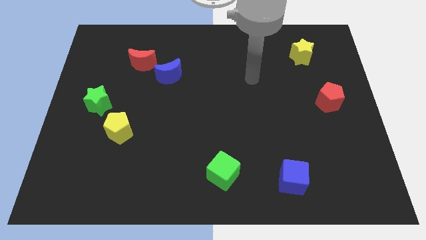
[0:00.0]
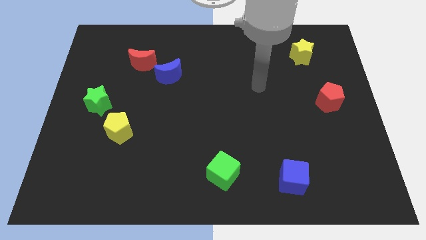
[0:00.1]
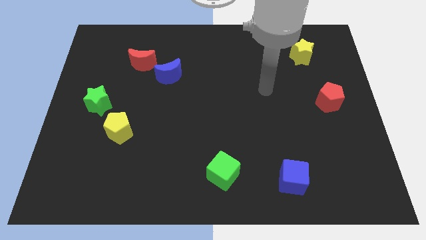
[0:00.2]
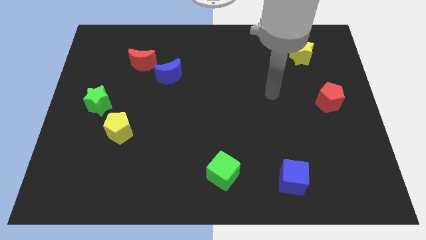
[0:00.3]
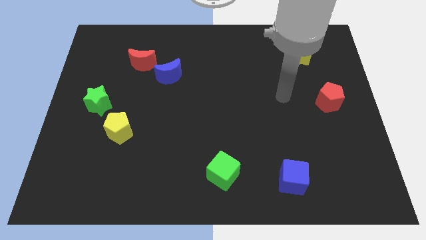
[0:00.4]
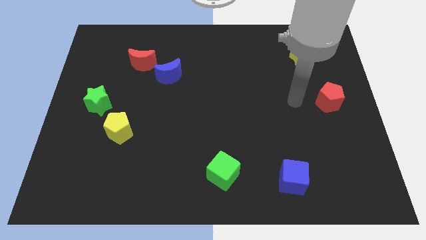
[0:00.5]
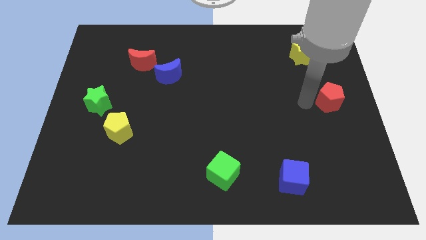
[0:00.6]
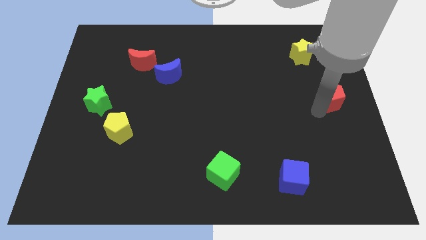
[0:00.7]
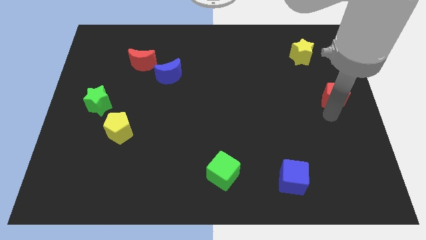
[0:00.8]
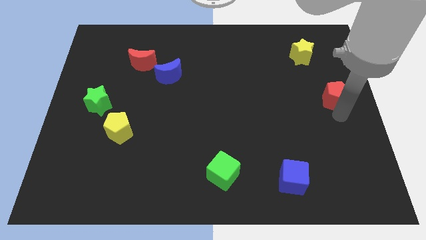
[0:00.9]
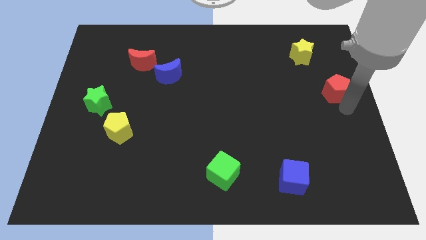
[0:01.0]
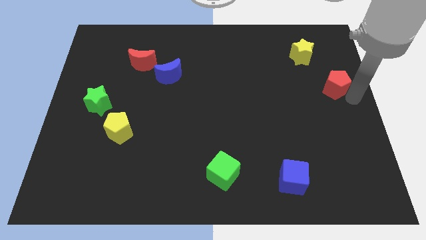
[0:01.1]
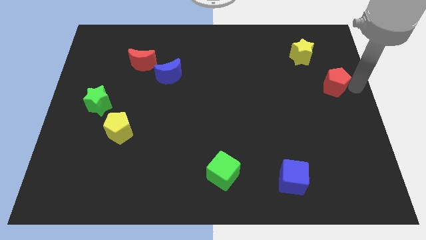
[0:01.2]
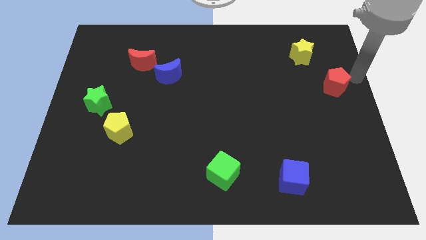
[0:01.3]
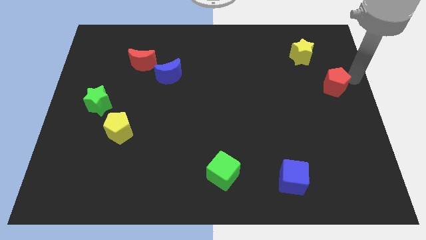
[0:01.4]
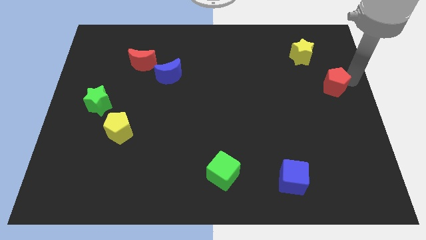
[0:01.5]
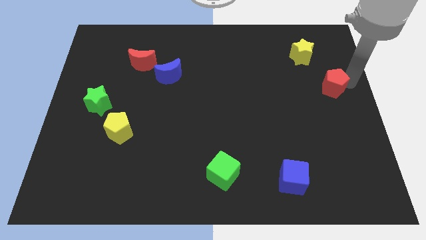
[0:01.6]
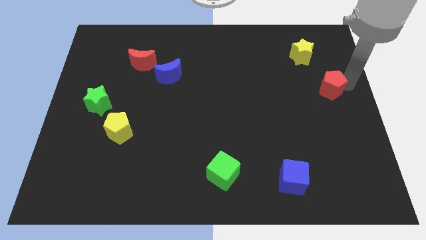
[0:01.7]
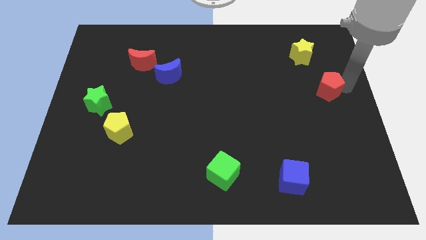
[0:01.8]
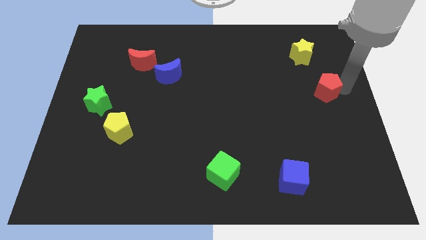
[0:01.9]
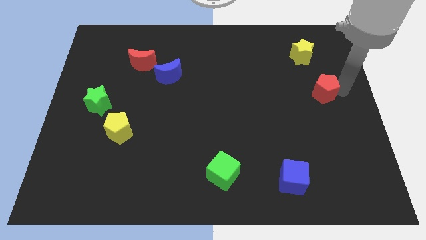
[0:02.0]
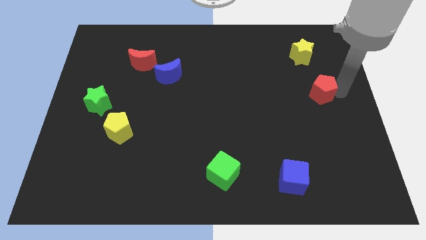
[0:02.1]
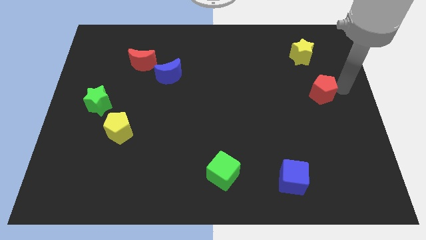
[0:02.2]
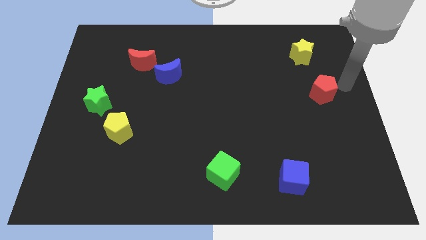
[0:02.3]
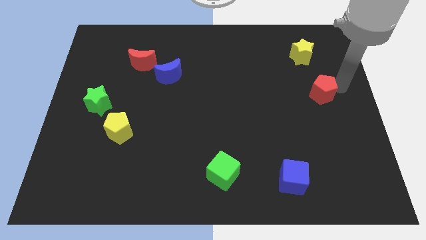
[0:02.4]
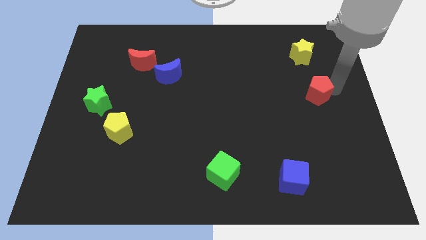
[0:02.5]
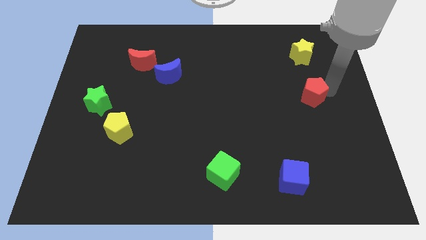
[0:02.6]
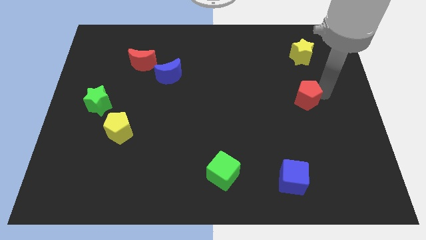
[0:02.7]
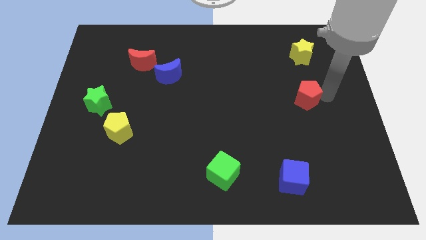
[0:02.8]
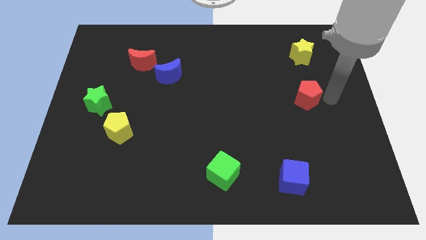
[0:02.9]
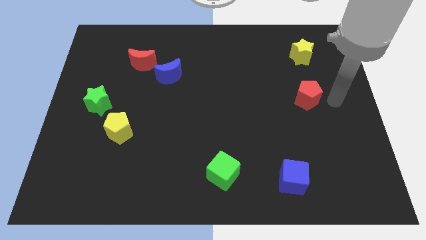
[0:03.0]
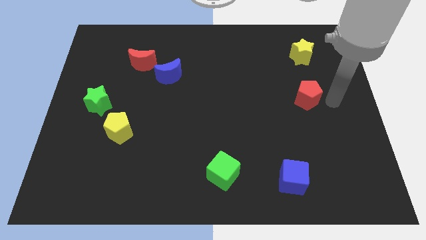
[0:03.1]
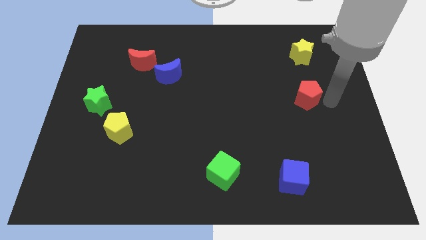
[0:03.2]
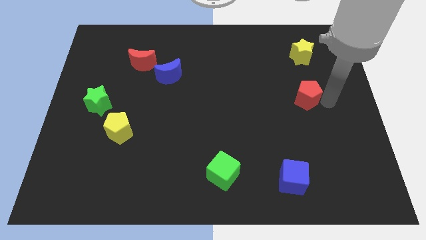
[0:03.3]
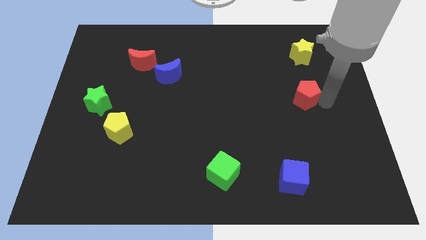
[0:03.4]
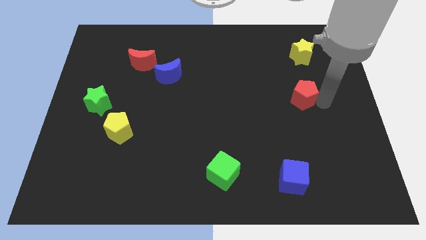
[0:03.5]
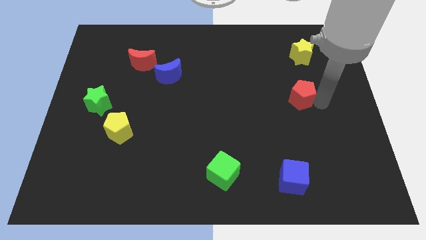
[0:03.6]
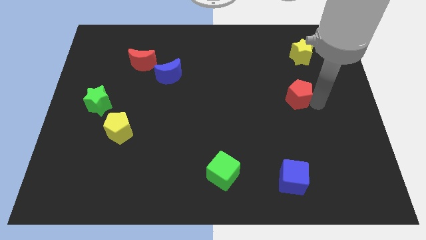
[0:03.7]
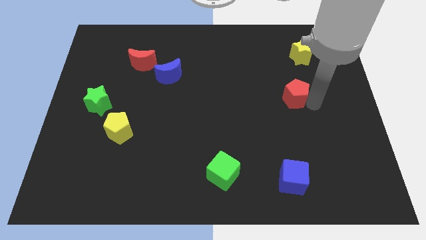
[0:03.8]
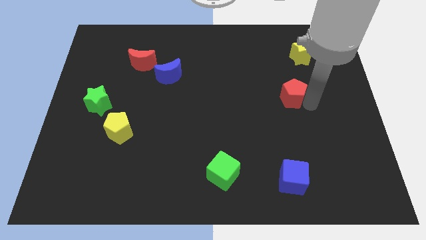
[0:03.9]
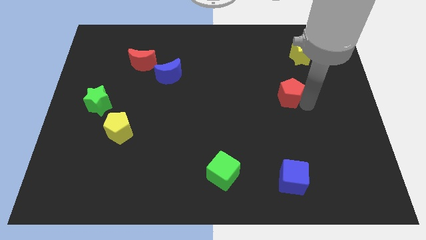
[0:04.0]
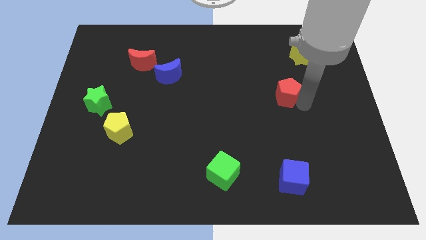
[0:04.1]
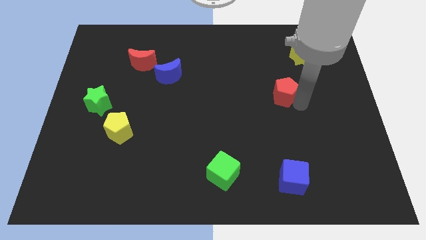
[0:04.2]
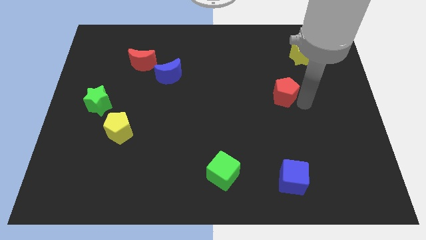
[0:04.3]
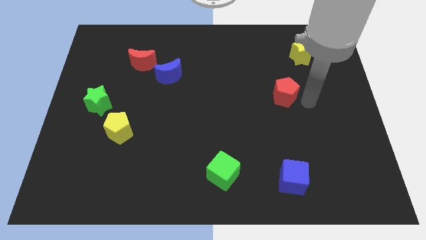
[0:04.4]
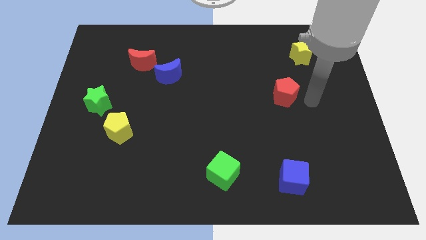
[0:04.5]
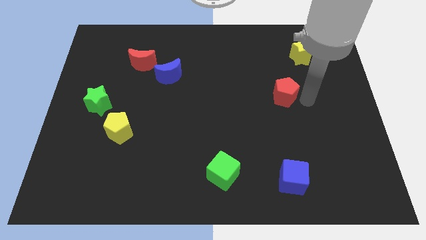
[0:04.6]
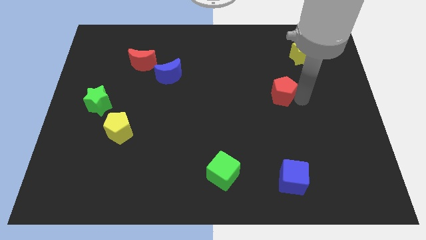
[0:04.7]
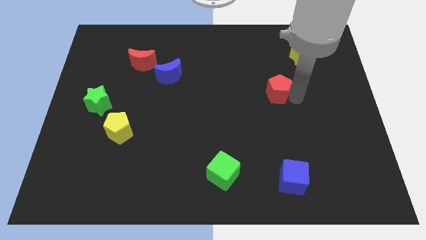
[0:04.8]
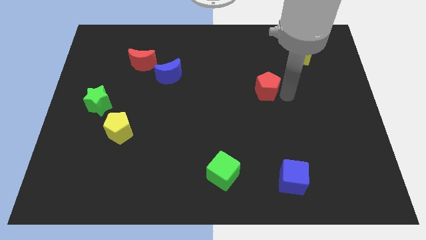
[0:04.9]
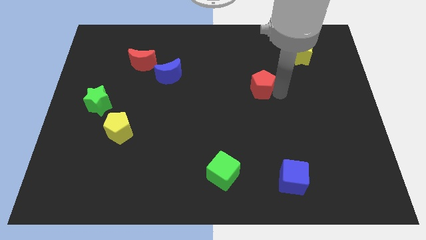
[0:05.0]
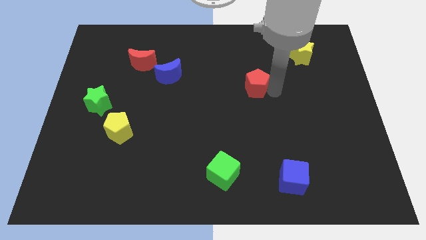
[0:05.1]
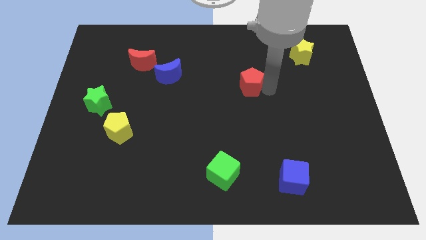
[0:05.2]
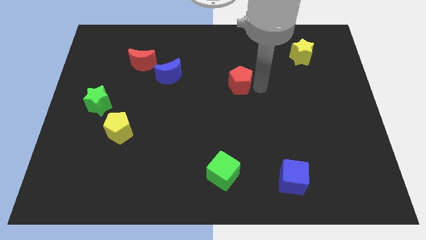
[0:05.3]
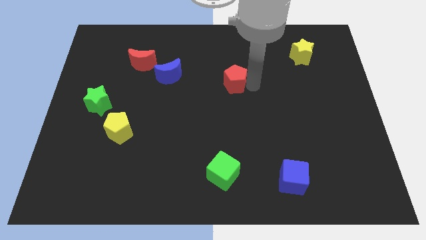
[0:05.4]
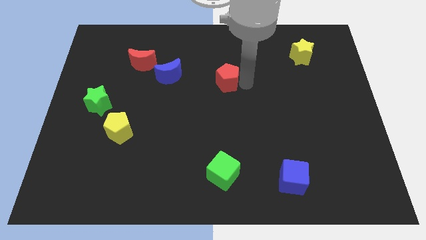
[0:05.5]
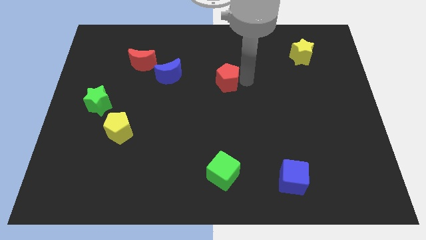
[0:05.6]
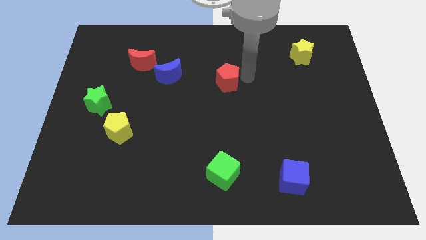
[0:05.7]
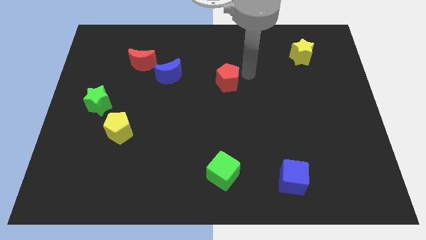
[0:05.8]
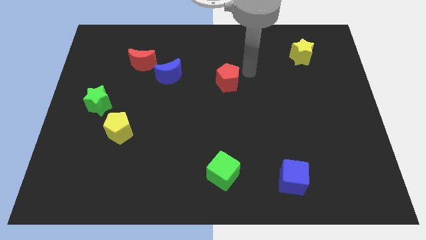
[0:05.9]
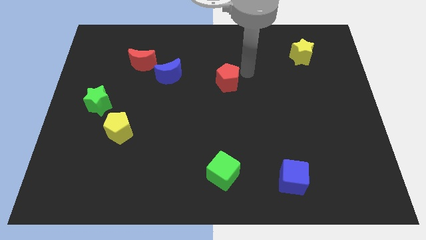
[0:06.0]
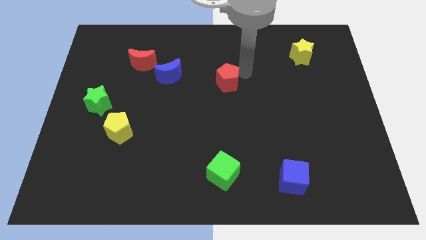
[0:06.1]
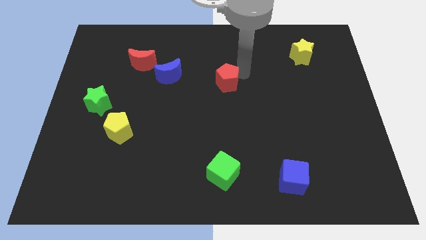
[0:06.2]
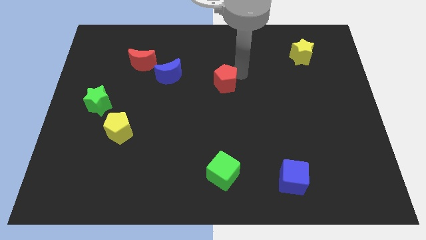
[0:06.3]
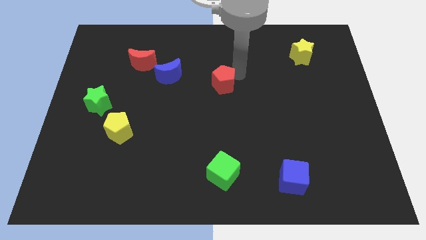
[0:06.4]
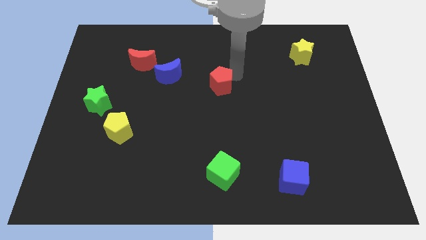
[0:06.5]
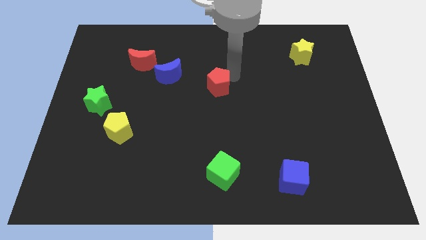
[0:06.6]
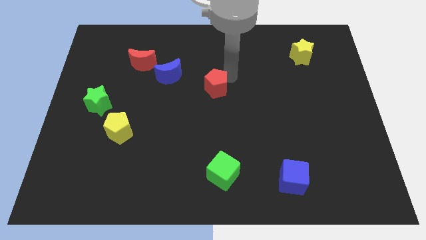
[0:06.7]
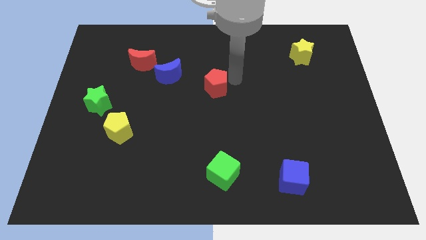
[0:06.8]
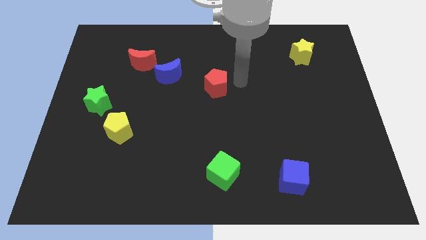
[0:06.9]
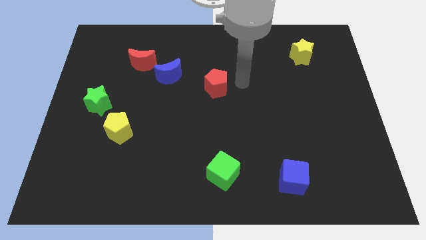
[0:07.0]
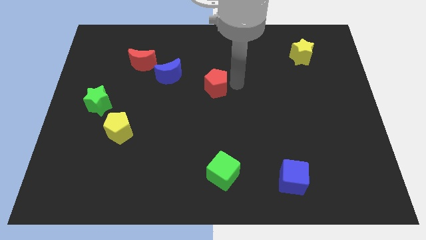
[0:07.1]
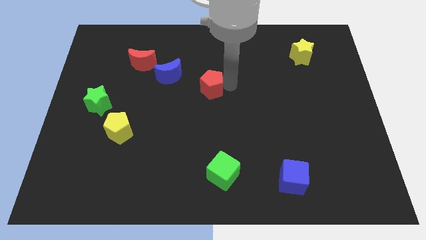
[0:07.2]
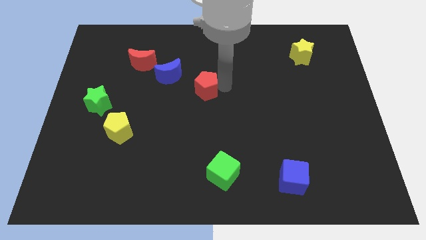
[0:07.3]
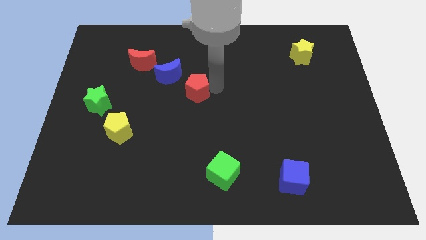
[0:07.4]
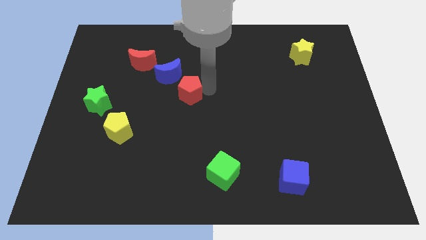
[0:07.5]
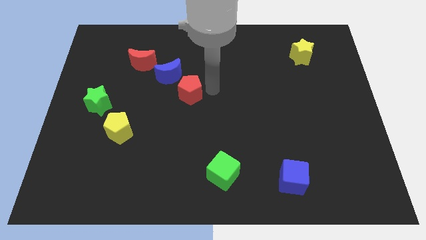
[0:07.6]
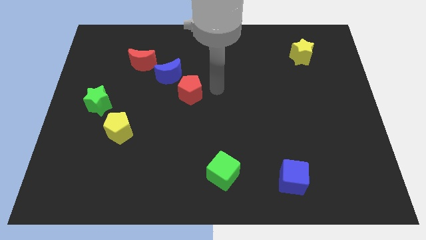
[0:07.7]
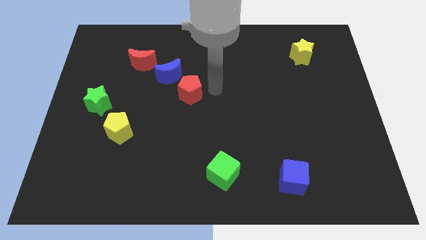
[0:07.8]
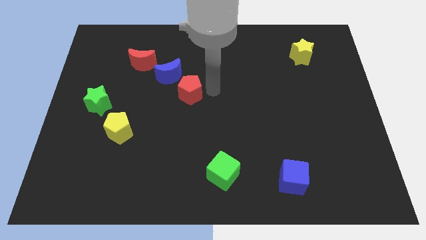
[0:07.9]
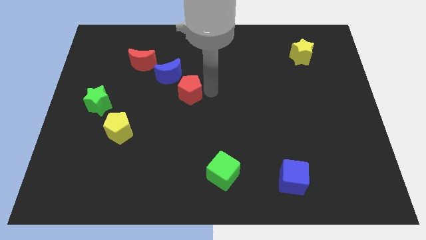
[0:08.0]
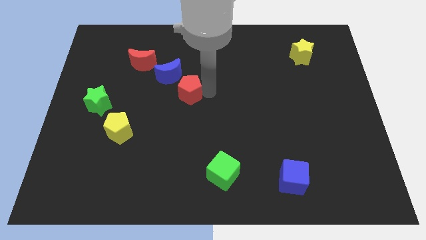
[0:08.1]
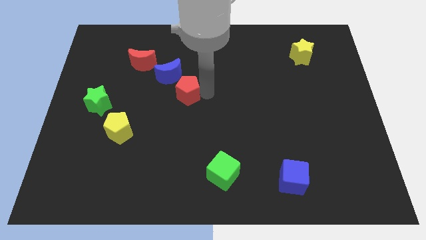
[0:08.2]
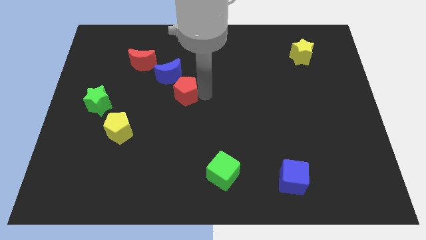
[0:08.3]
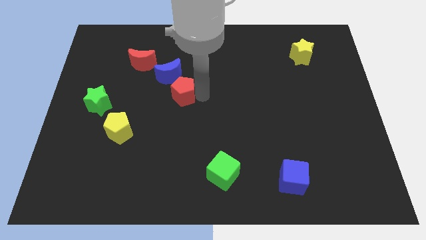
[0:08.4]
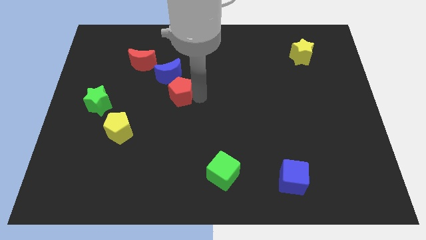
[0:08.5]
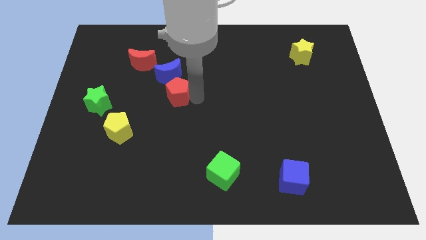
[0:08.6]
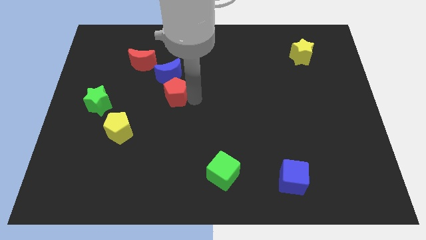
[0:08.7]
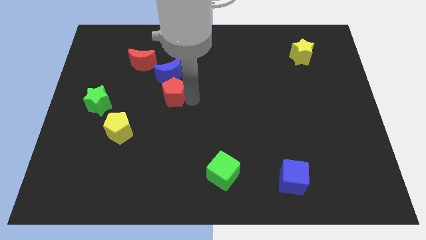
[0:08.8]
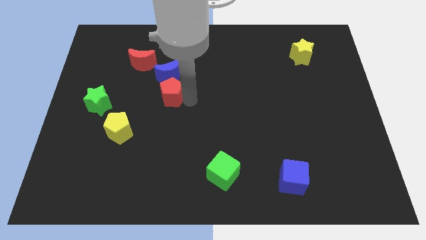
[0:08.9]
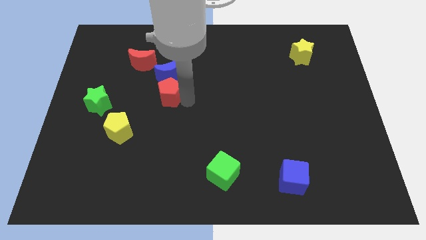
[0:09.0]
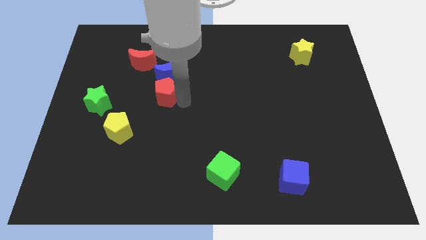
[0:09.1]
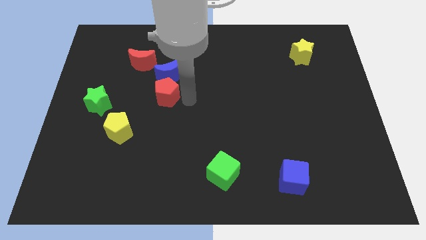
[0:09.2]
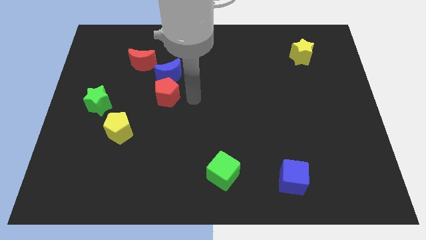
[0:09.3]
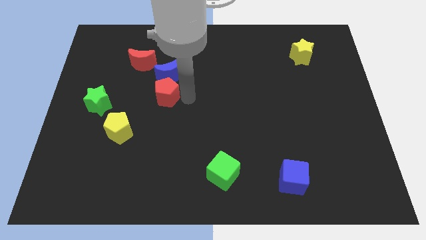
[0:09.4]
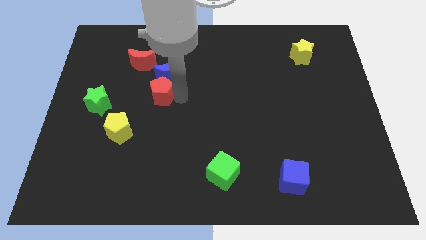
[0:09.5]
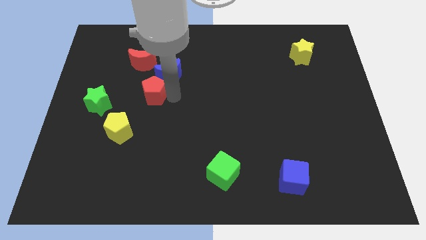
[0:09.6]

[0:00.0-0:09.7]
slide the red pentagon to the bottom of the red moon
